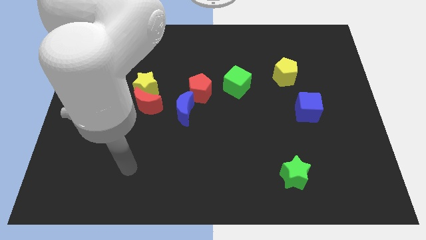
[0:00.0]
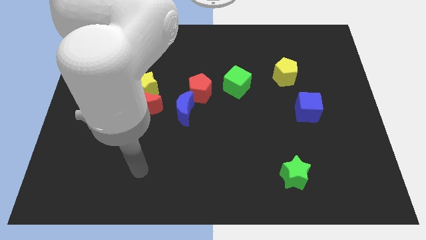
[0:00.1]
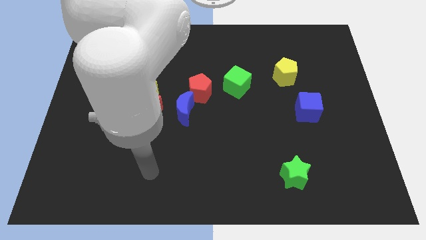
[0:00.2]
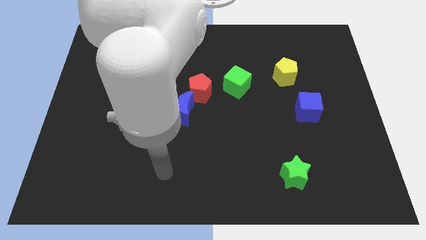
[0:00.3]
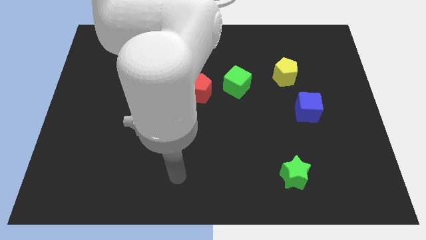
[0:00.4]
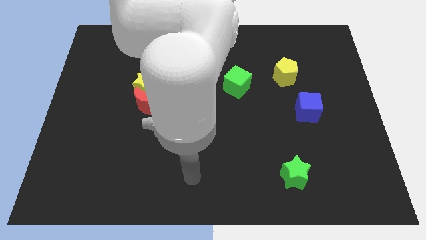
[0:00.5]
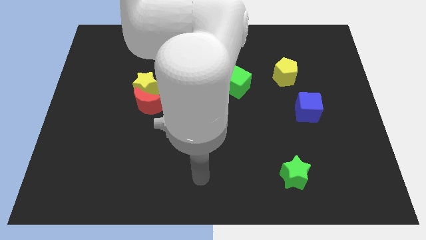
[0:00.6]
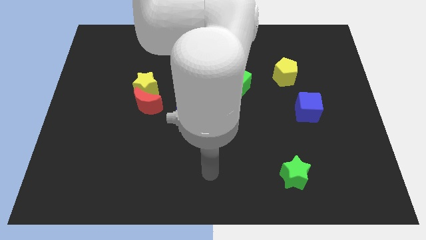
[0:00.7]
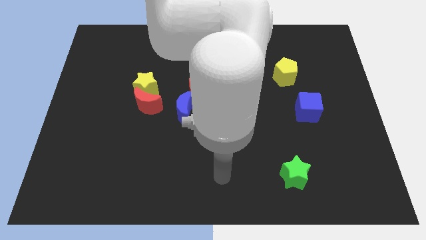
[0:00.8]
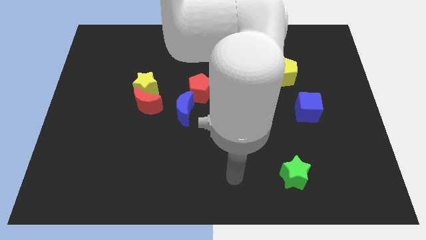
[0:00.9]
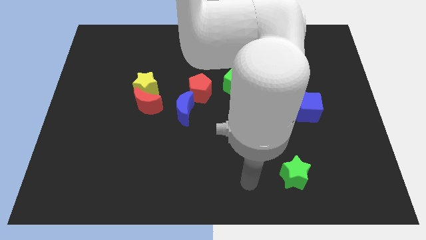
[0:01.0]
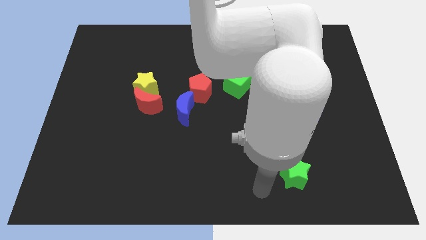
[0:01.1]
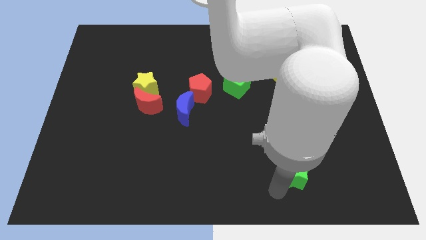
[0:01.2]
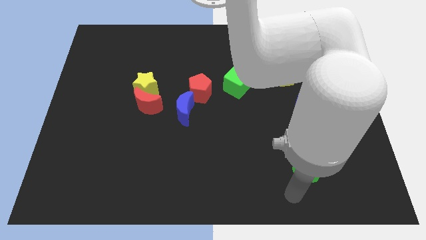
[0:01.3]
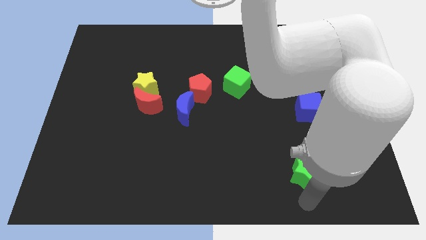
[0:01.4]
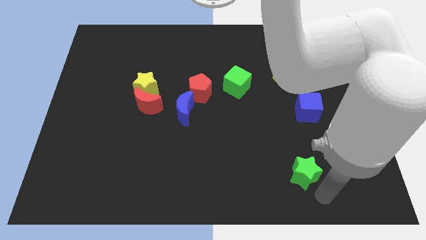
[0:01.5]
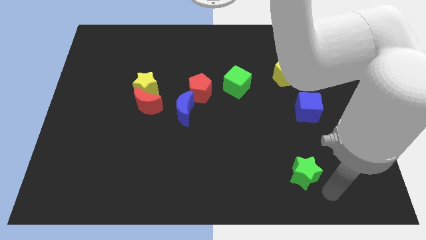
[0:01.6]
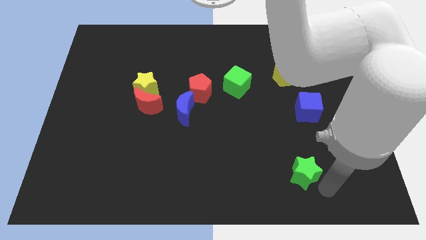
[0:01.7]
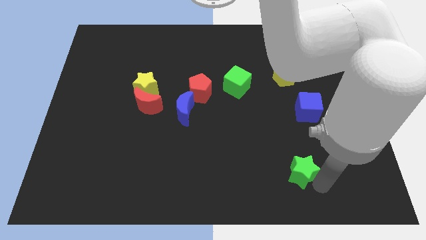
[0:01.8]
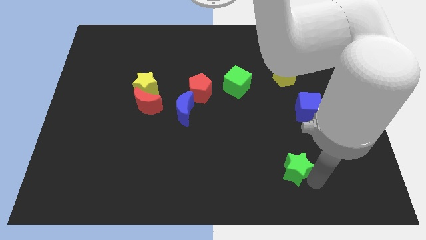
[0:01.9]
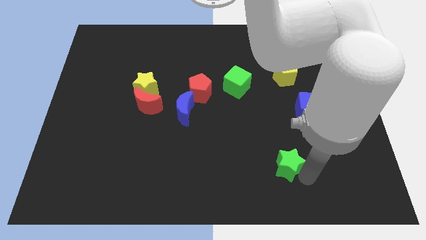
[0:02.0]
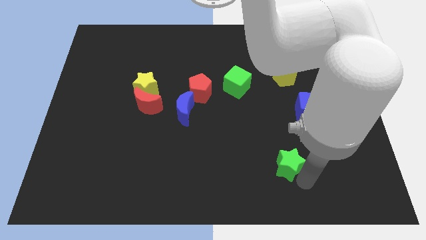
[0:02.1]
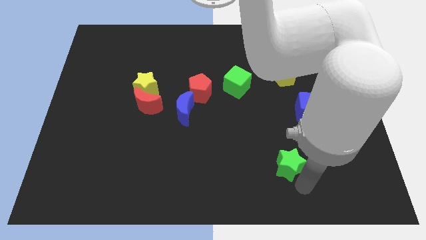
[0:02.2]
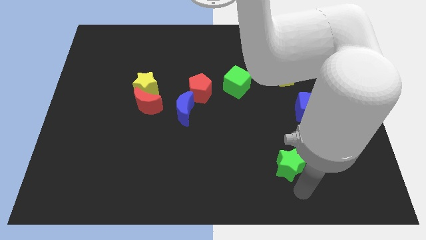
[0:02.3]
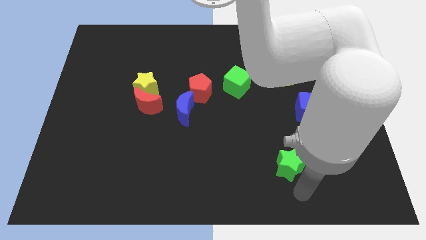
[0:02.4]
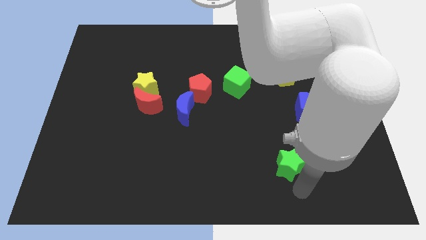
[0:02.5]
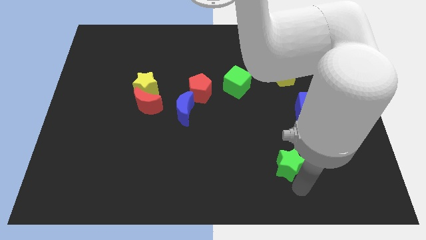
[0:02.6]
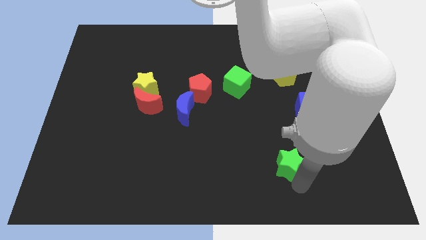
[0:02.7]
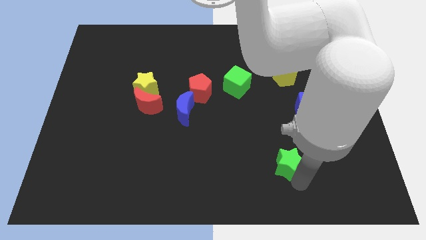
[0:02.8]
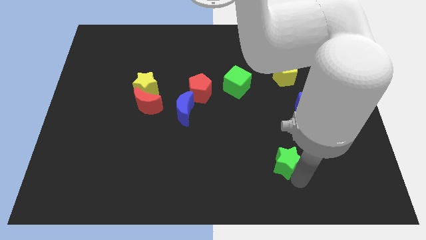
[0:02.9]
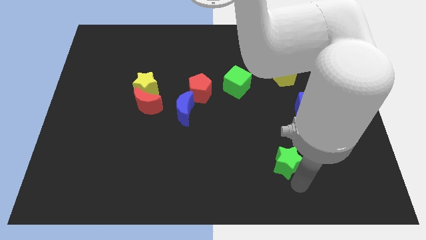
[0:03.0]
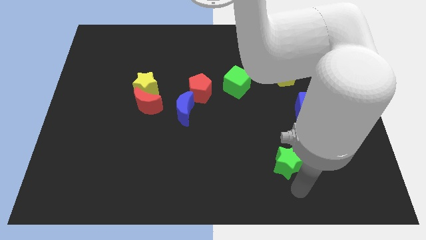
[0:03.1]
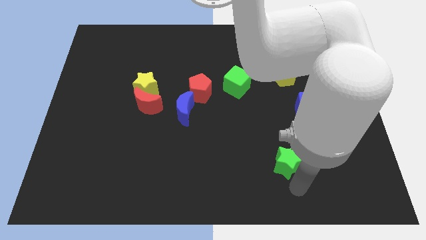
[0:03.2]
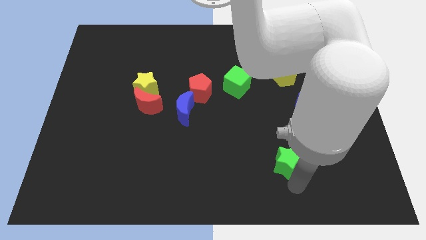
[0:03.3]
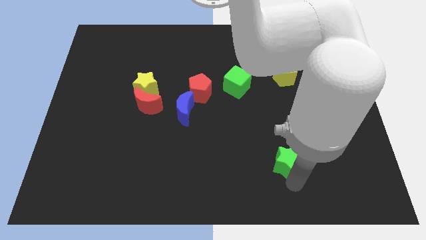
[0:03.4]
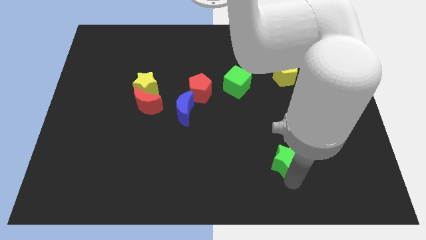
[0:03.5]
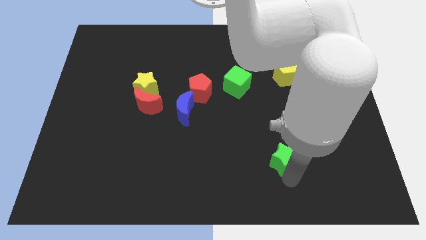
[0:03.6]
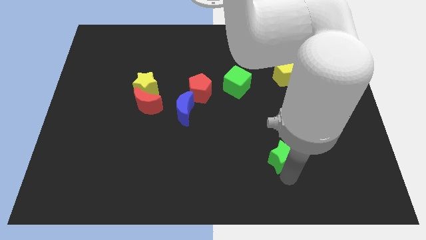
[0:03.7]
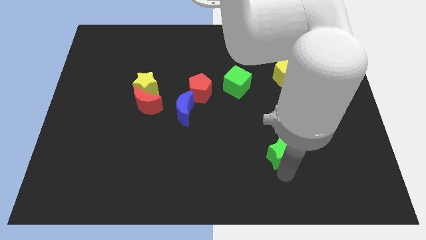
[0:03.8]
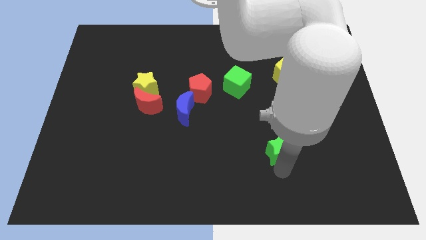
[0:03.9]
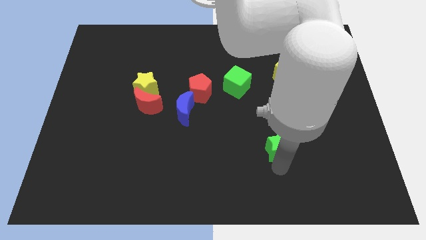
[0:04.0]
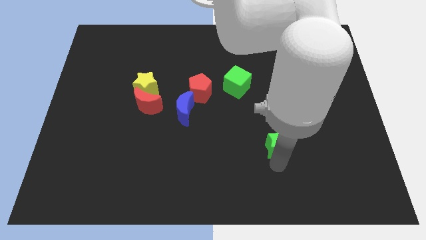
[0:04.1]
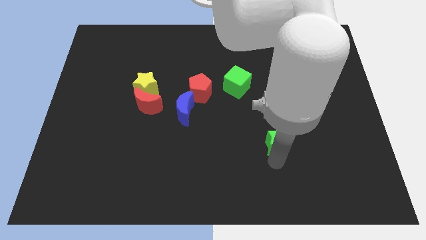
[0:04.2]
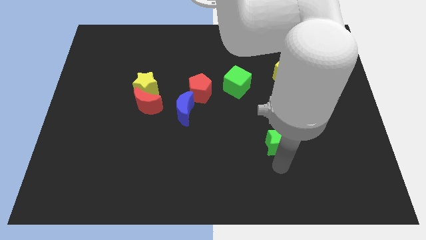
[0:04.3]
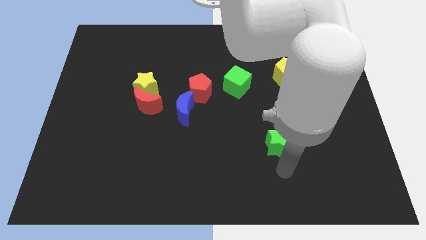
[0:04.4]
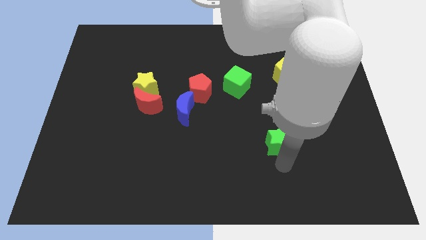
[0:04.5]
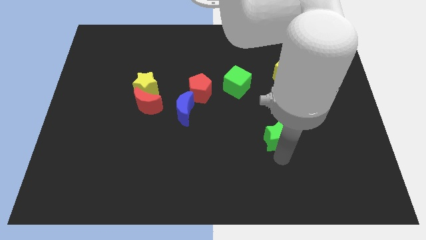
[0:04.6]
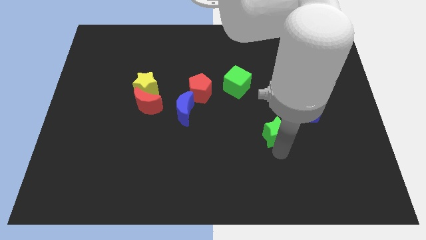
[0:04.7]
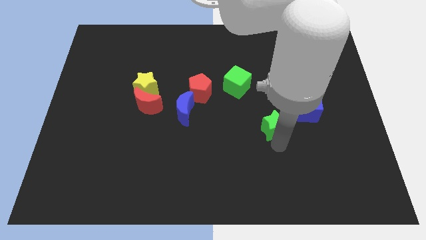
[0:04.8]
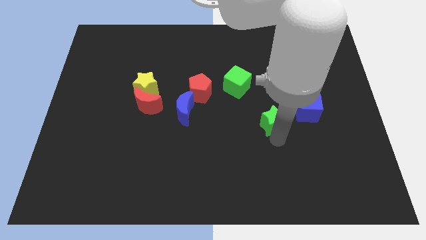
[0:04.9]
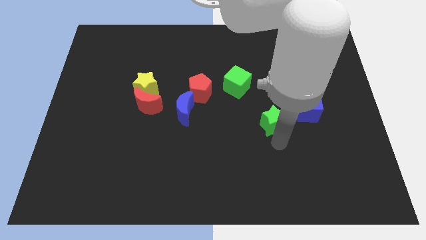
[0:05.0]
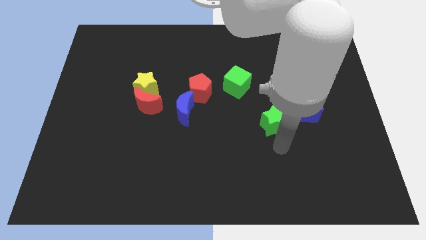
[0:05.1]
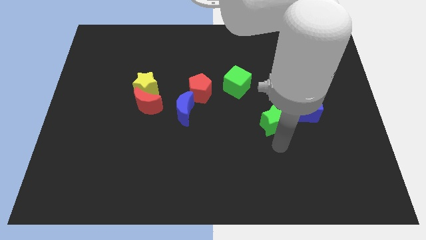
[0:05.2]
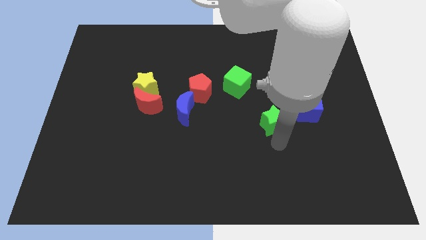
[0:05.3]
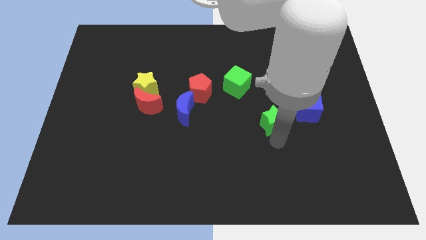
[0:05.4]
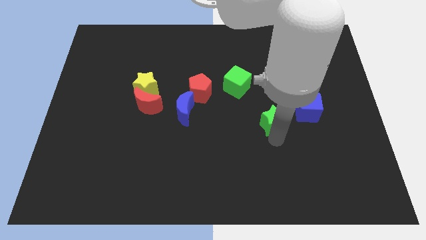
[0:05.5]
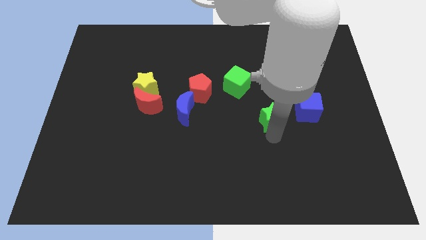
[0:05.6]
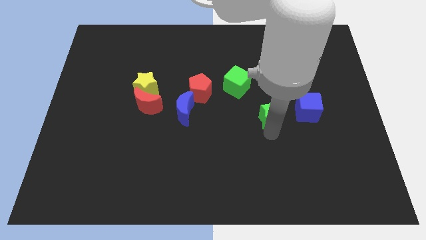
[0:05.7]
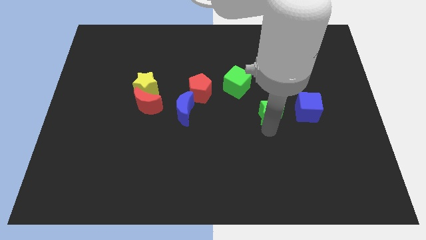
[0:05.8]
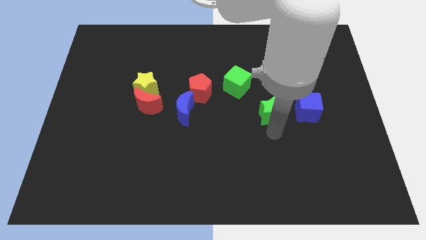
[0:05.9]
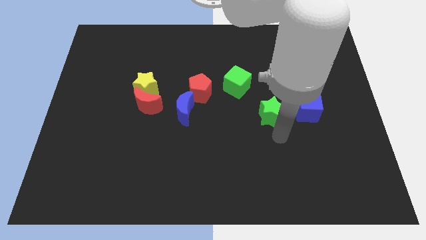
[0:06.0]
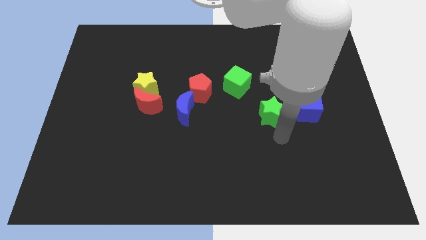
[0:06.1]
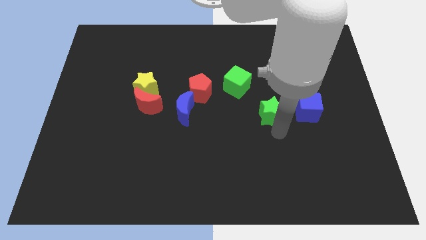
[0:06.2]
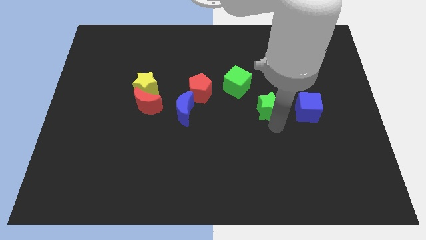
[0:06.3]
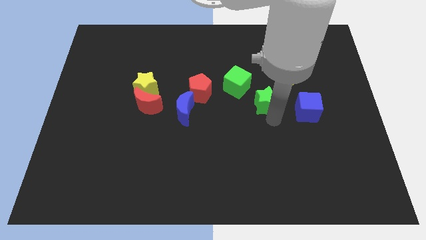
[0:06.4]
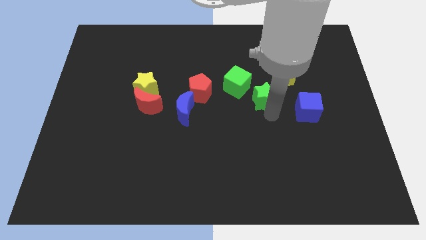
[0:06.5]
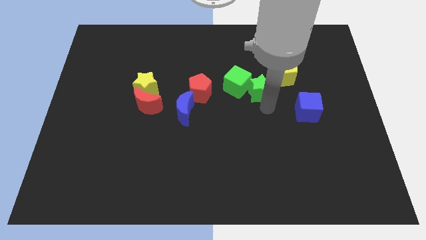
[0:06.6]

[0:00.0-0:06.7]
push the green star up

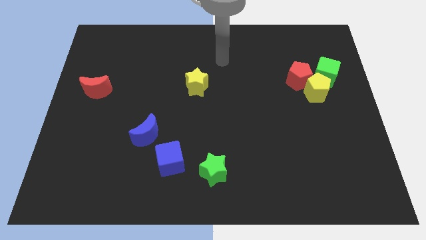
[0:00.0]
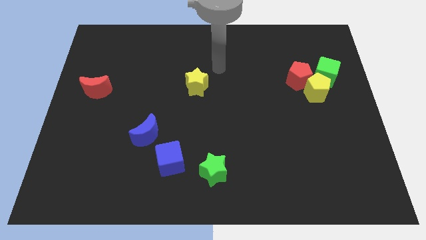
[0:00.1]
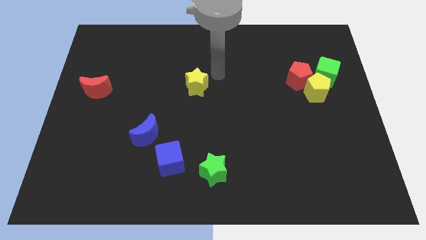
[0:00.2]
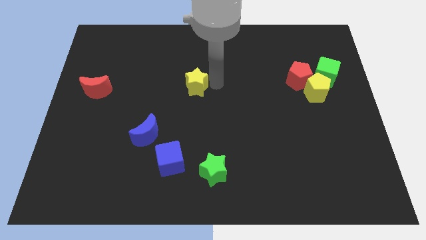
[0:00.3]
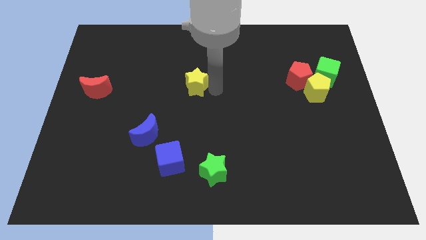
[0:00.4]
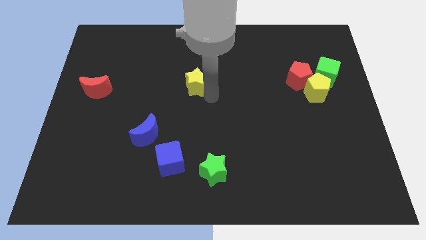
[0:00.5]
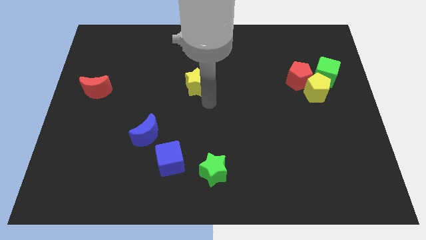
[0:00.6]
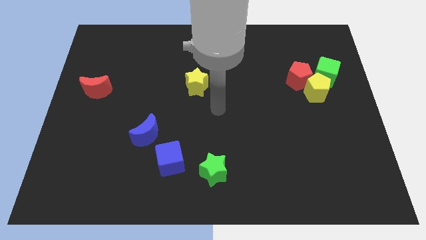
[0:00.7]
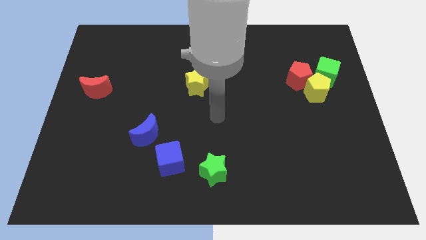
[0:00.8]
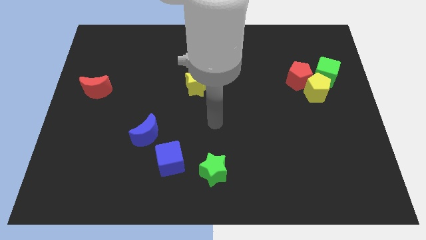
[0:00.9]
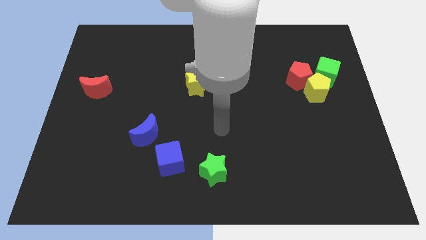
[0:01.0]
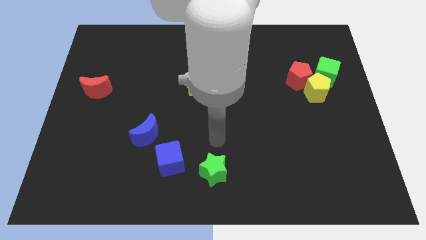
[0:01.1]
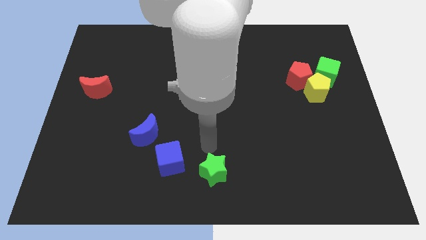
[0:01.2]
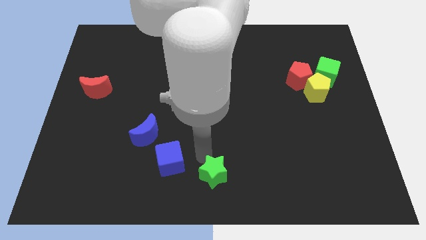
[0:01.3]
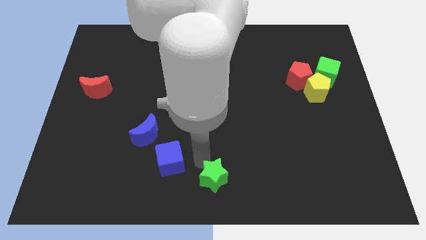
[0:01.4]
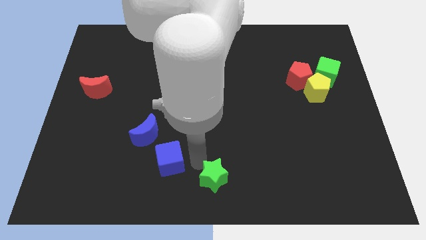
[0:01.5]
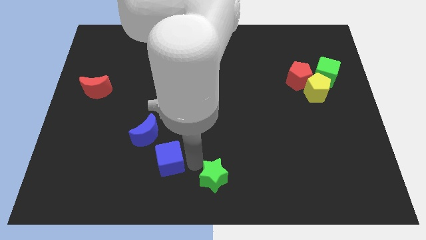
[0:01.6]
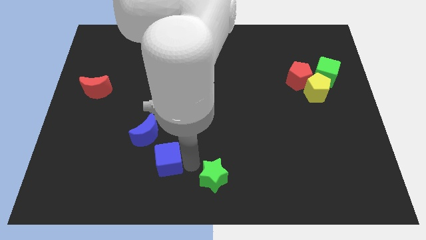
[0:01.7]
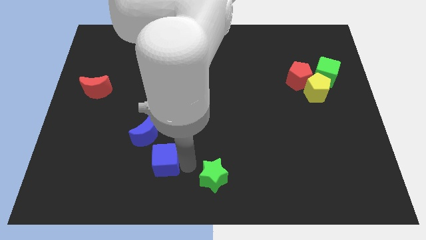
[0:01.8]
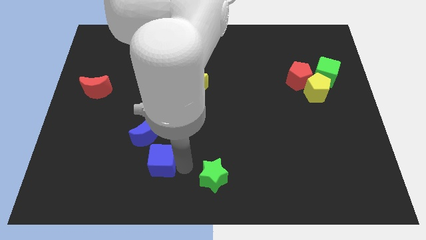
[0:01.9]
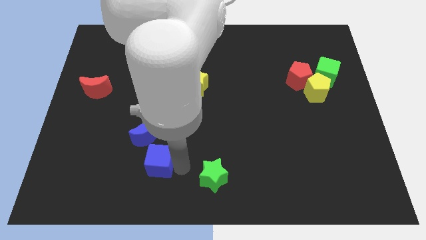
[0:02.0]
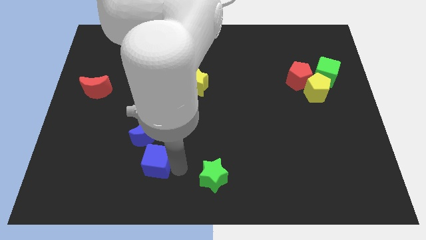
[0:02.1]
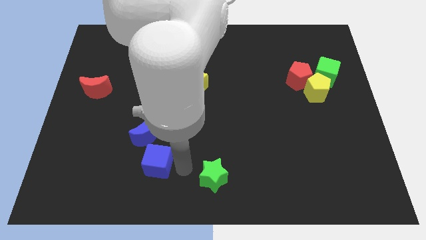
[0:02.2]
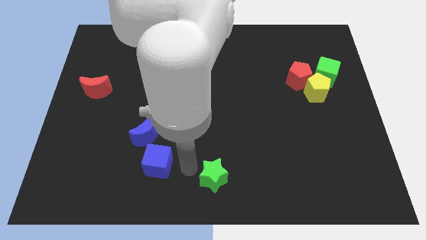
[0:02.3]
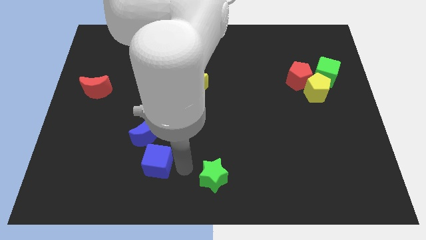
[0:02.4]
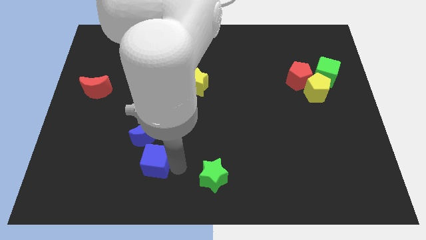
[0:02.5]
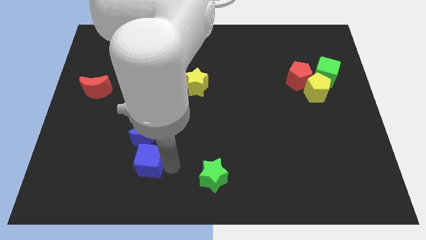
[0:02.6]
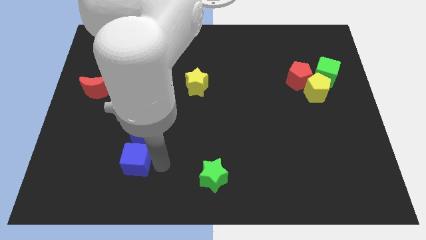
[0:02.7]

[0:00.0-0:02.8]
slightly push the blue cube to the left
